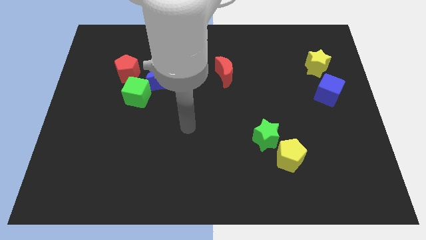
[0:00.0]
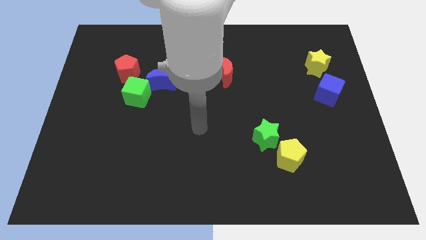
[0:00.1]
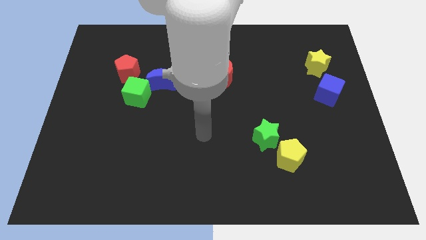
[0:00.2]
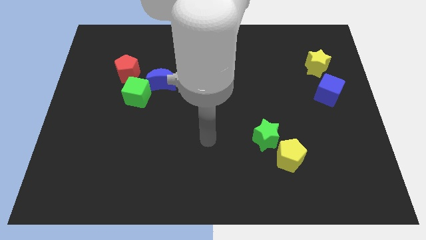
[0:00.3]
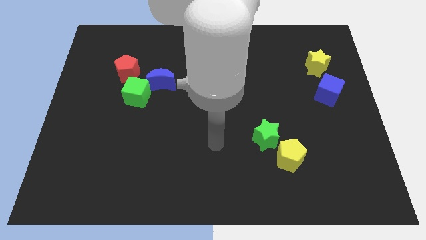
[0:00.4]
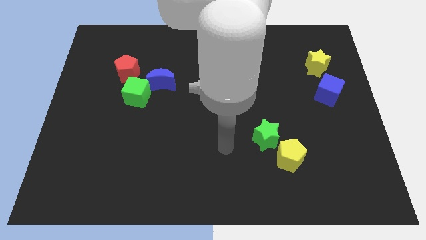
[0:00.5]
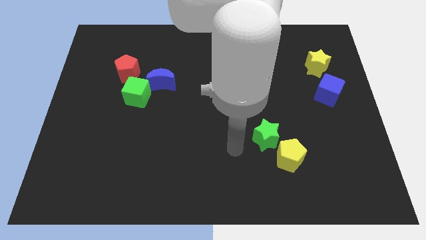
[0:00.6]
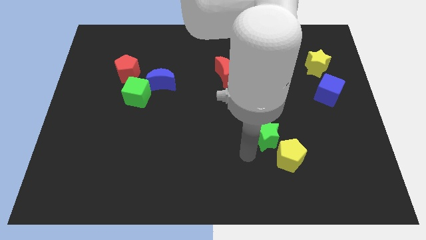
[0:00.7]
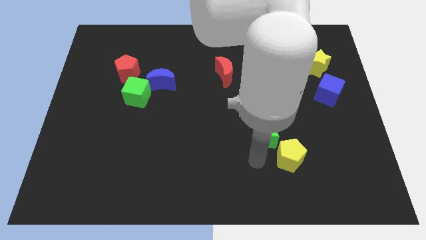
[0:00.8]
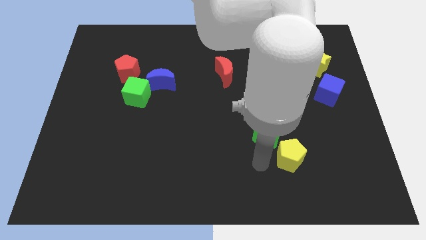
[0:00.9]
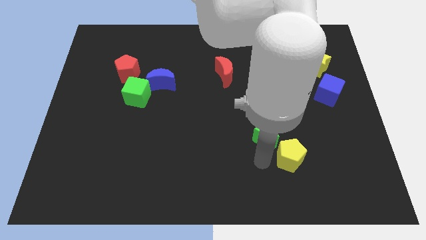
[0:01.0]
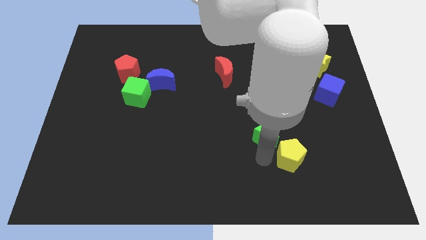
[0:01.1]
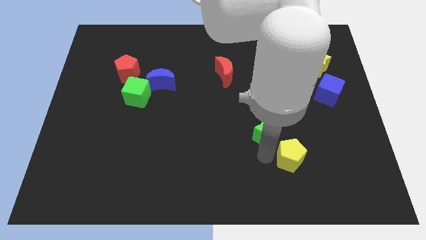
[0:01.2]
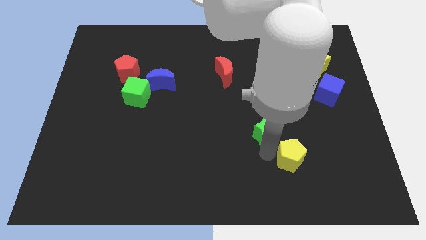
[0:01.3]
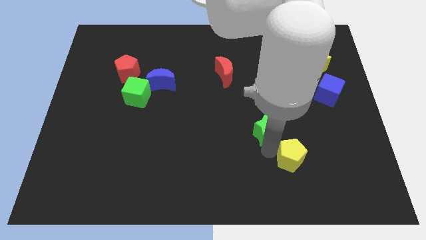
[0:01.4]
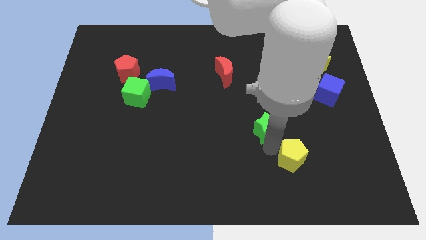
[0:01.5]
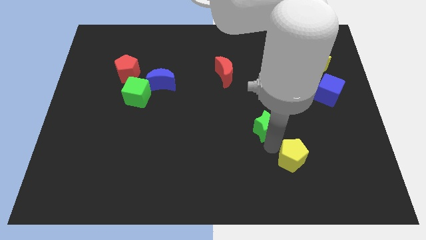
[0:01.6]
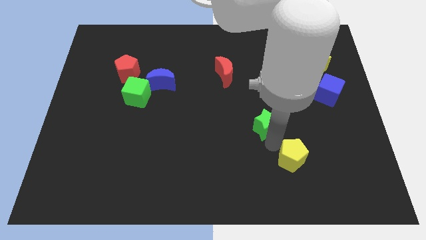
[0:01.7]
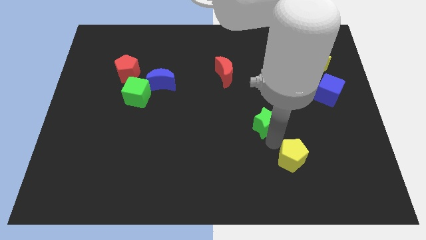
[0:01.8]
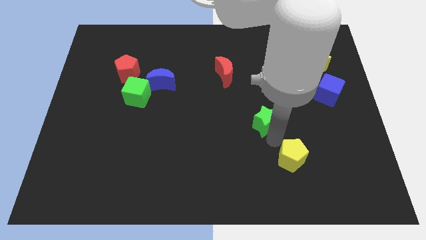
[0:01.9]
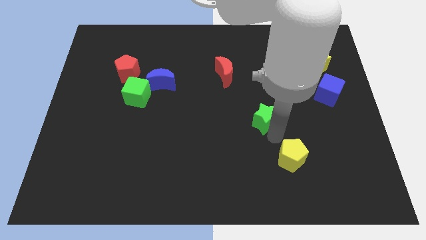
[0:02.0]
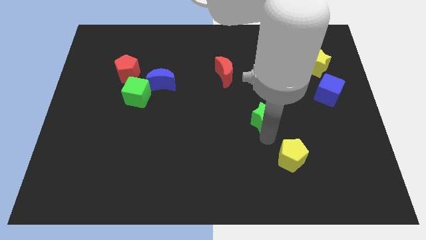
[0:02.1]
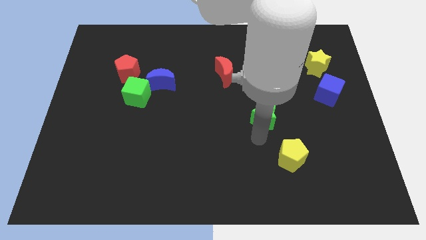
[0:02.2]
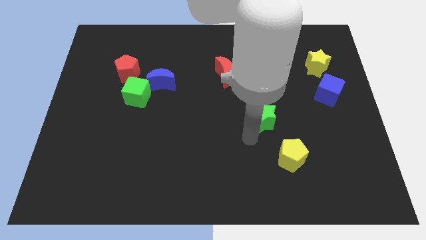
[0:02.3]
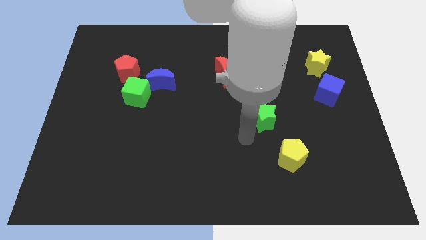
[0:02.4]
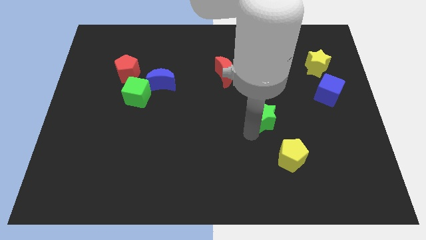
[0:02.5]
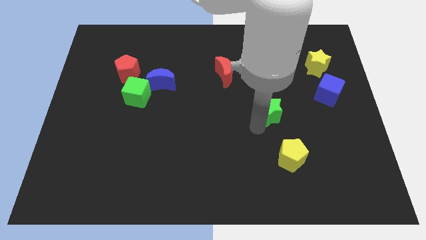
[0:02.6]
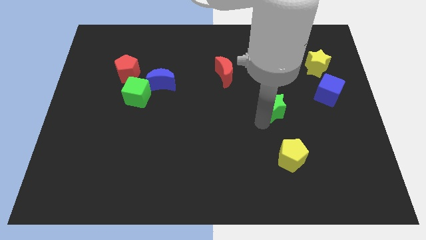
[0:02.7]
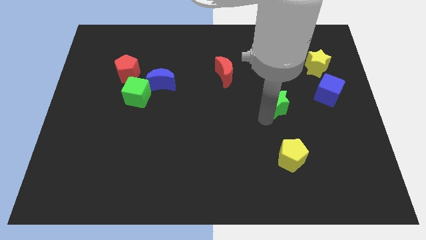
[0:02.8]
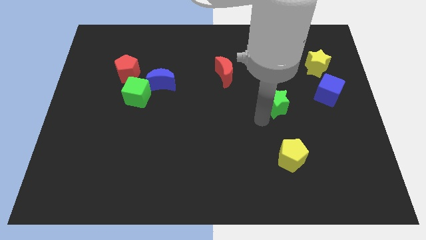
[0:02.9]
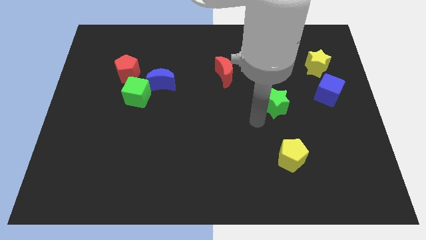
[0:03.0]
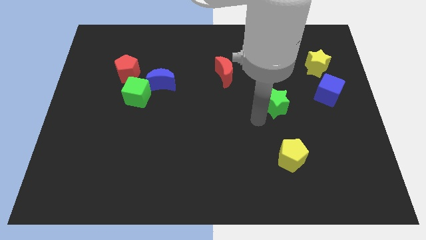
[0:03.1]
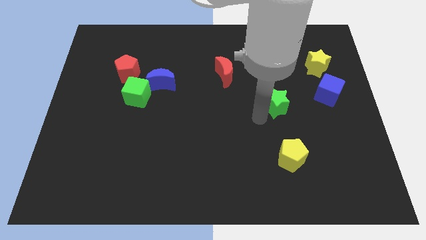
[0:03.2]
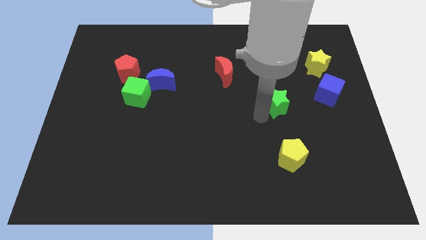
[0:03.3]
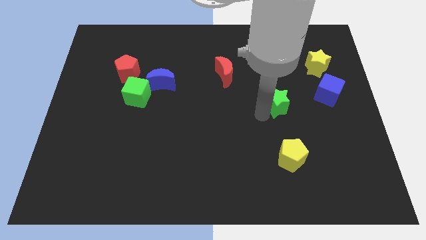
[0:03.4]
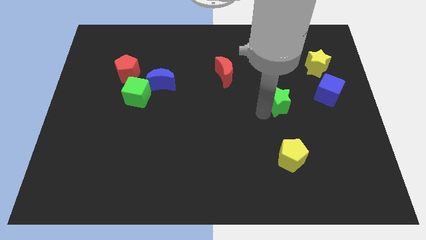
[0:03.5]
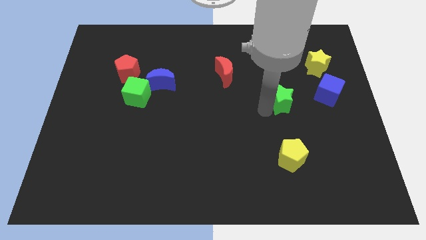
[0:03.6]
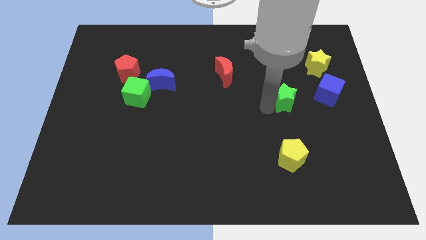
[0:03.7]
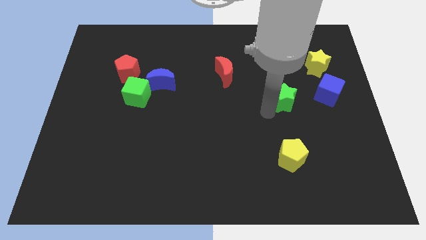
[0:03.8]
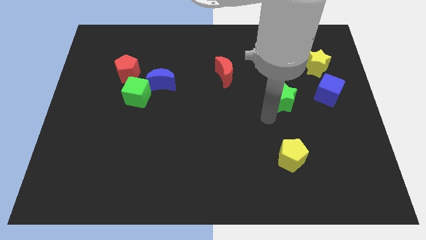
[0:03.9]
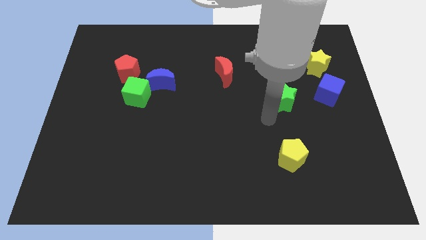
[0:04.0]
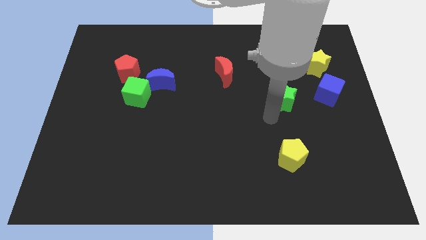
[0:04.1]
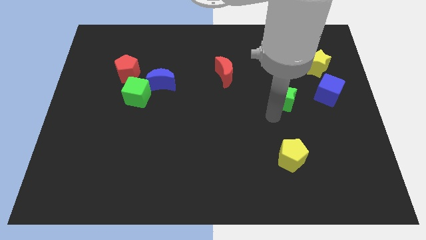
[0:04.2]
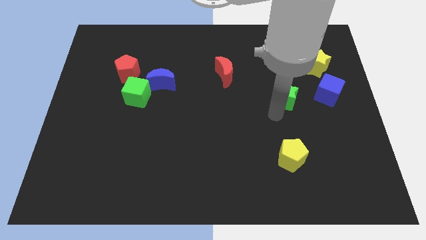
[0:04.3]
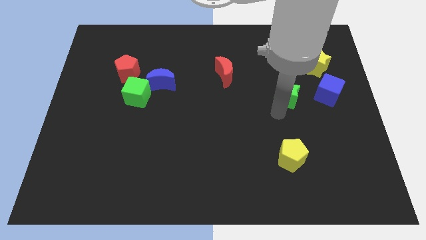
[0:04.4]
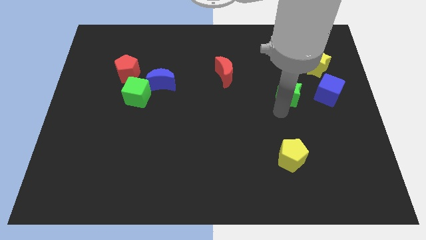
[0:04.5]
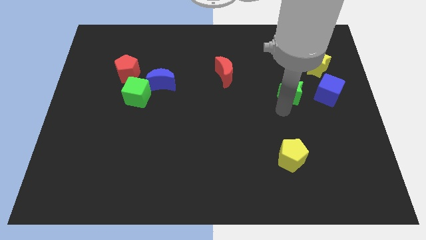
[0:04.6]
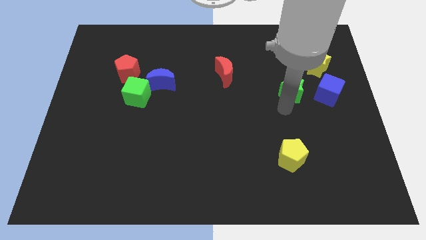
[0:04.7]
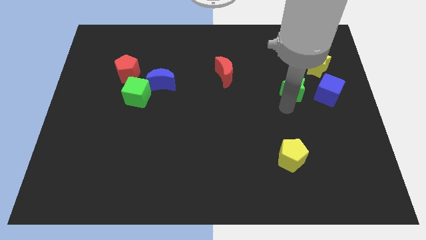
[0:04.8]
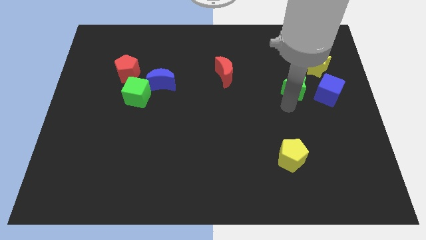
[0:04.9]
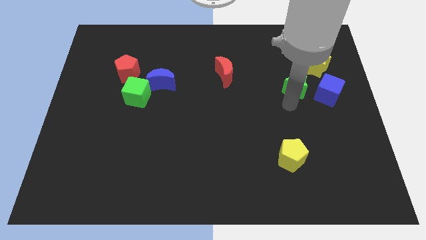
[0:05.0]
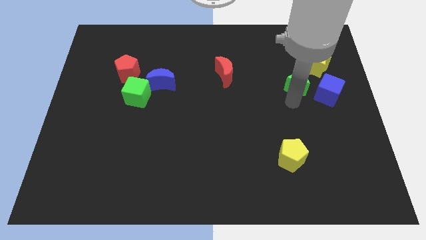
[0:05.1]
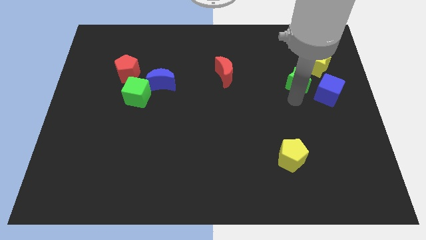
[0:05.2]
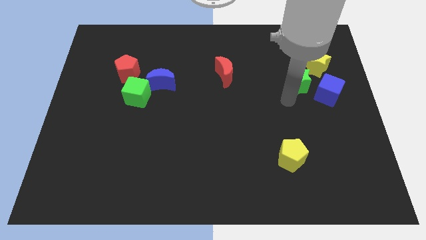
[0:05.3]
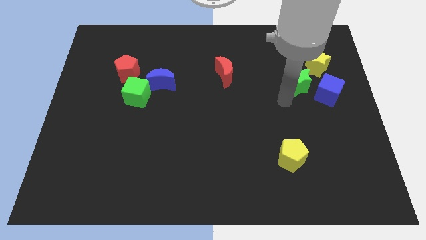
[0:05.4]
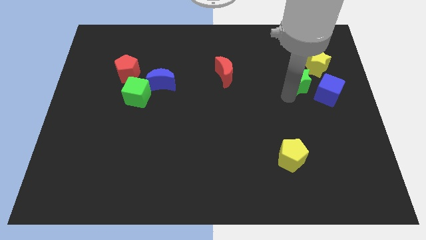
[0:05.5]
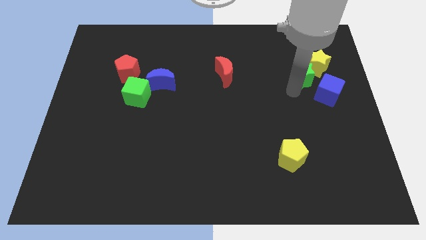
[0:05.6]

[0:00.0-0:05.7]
move the green star close to the yellow star

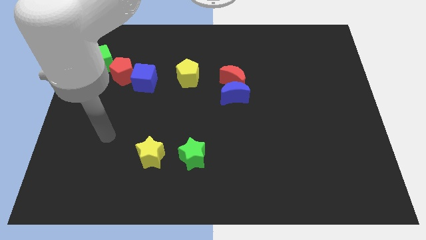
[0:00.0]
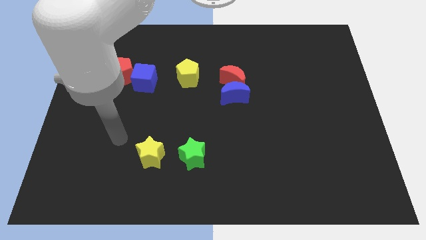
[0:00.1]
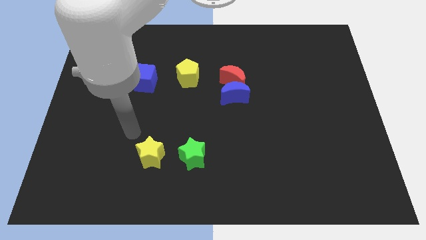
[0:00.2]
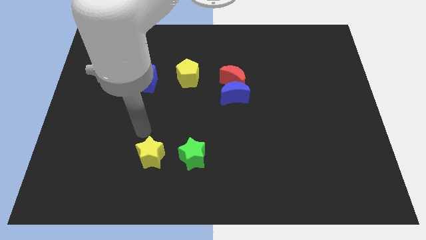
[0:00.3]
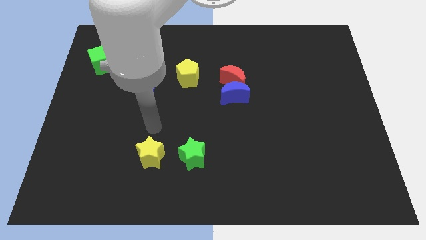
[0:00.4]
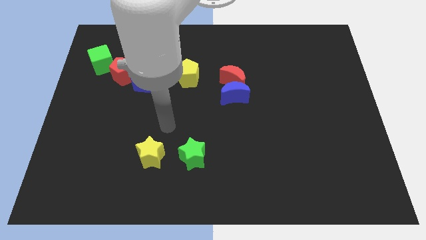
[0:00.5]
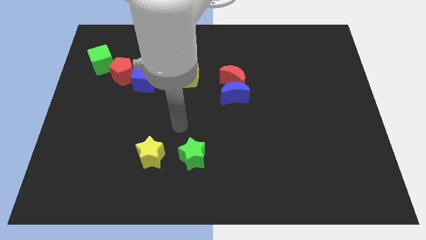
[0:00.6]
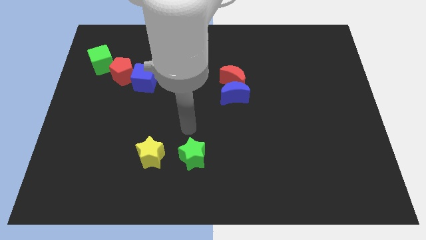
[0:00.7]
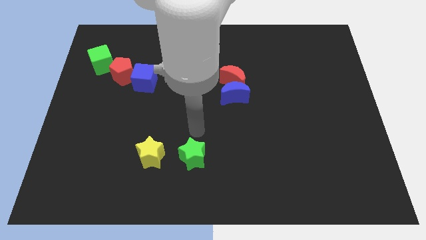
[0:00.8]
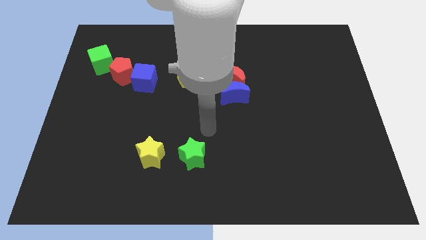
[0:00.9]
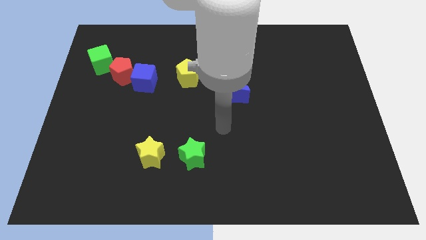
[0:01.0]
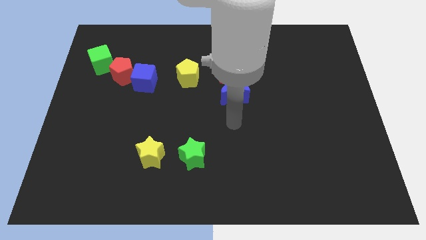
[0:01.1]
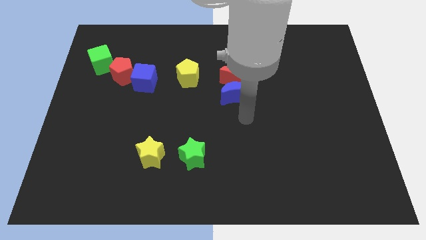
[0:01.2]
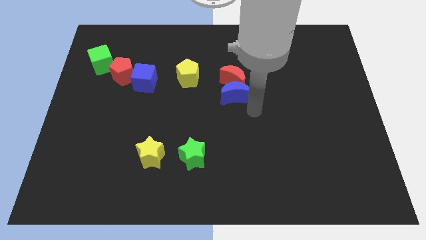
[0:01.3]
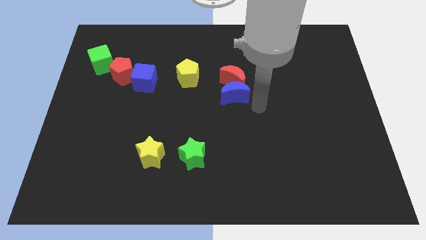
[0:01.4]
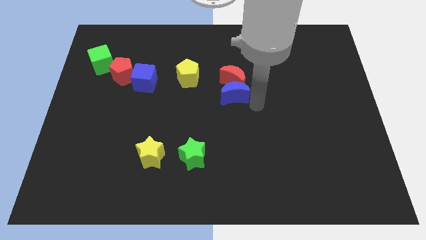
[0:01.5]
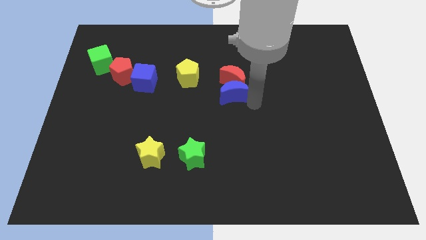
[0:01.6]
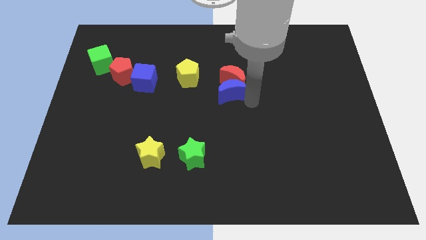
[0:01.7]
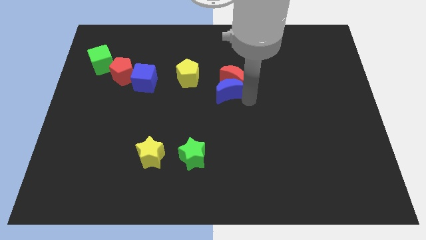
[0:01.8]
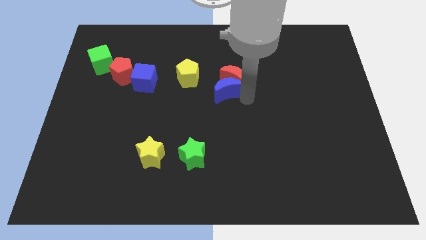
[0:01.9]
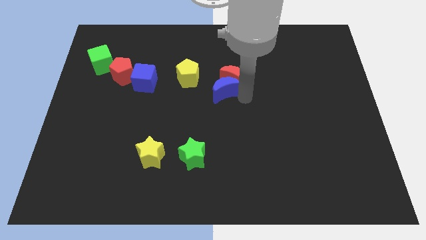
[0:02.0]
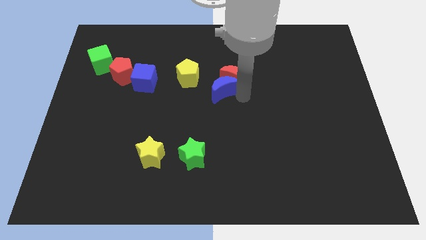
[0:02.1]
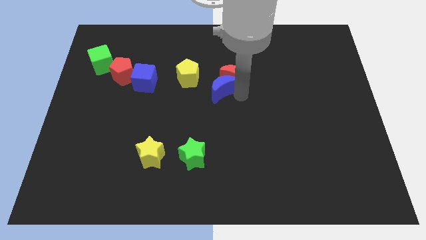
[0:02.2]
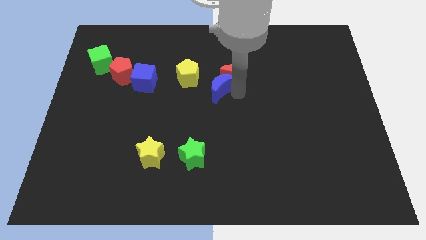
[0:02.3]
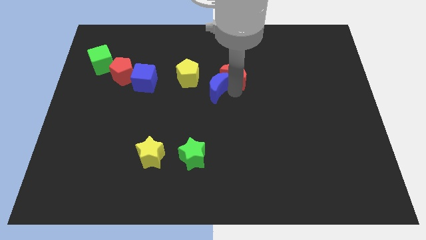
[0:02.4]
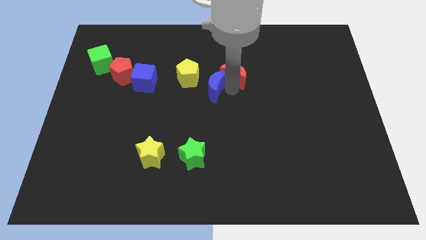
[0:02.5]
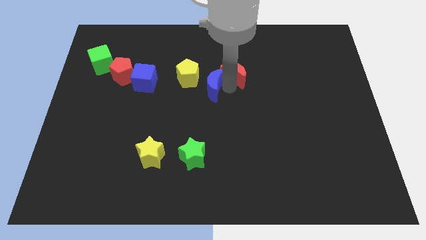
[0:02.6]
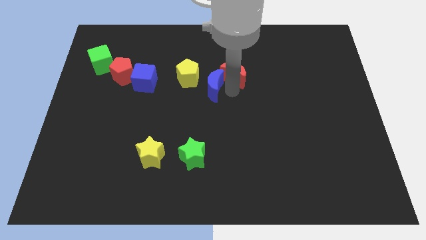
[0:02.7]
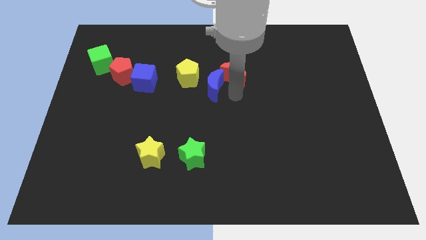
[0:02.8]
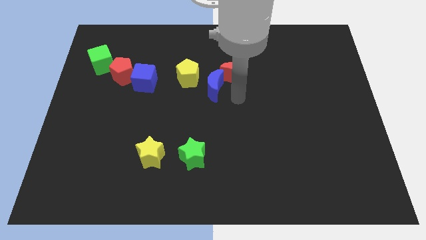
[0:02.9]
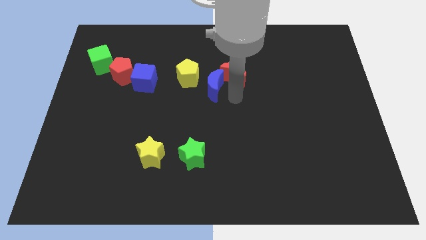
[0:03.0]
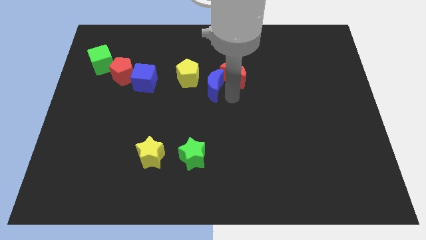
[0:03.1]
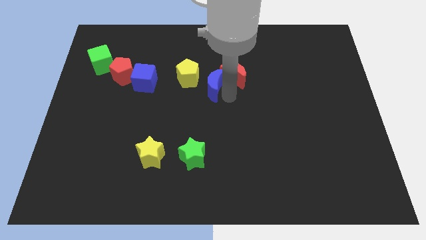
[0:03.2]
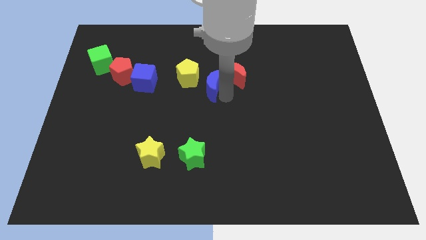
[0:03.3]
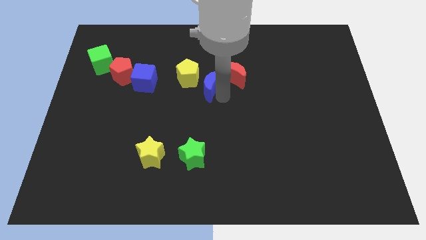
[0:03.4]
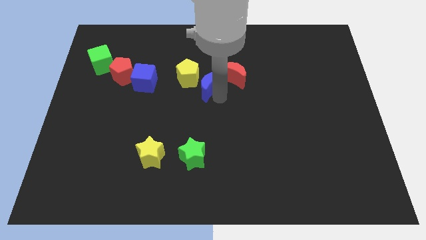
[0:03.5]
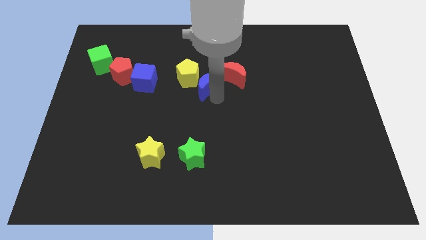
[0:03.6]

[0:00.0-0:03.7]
slide the blue moon close to the yellow pentagon
